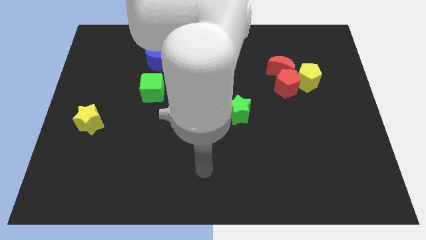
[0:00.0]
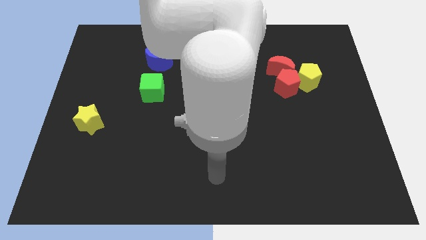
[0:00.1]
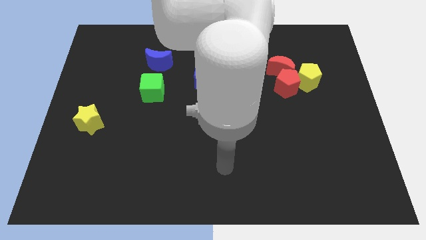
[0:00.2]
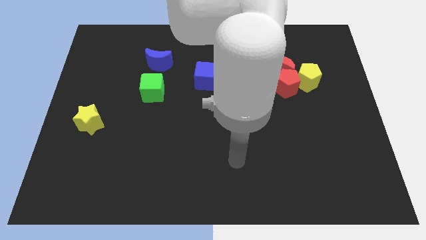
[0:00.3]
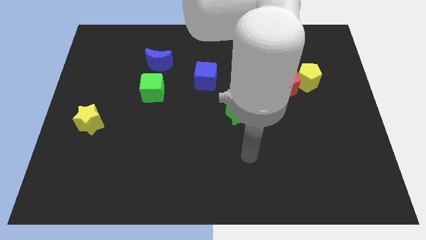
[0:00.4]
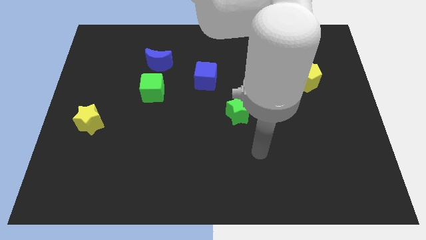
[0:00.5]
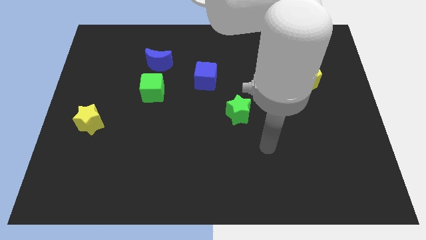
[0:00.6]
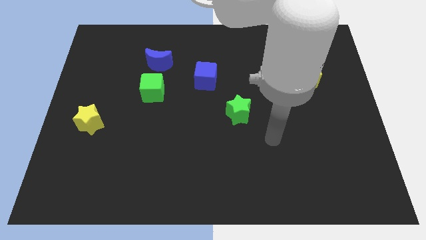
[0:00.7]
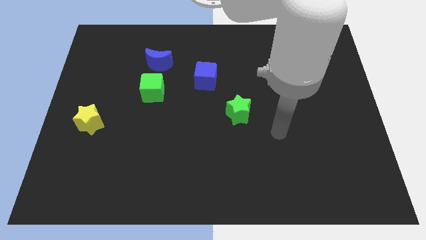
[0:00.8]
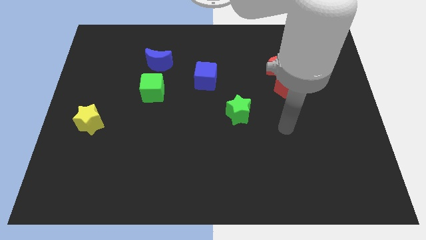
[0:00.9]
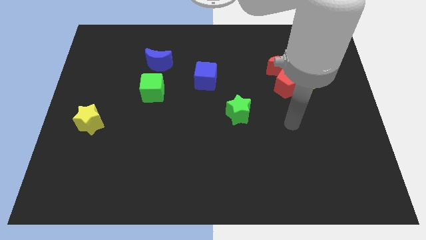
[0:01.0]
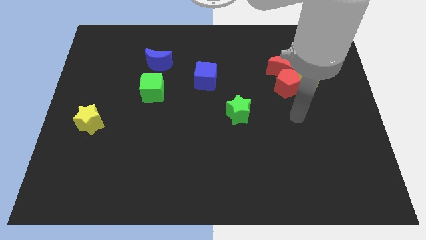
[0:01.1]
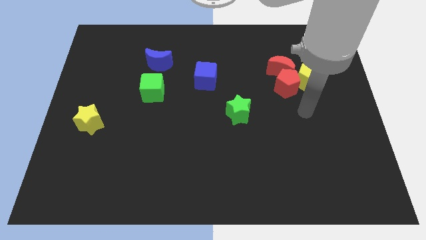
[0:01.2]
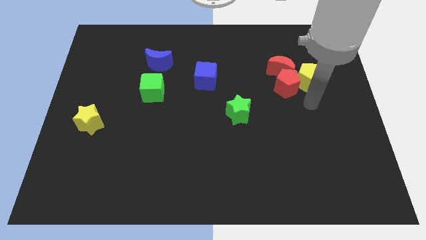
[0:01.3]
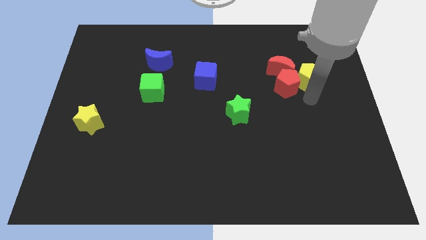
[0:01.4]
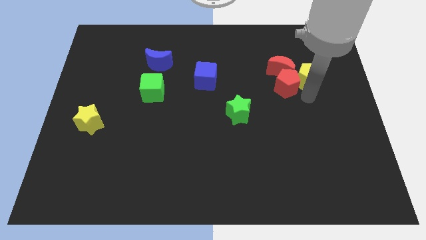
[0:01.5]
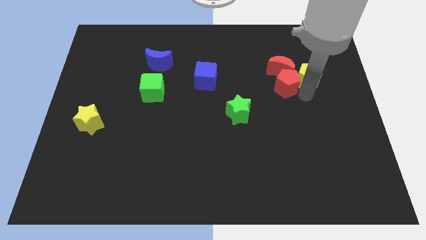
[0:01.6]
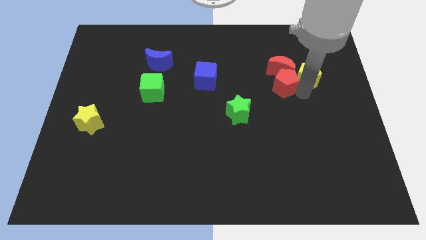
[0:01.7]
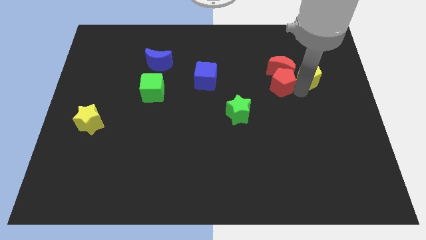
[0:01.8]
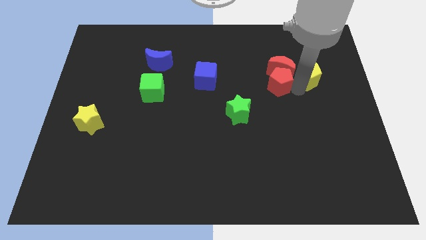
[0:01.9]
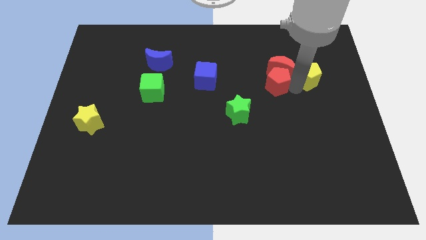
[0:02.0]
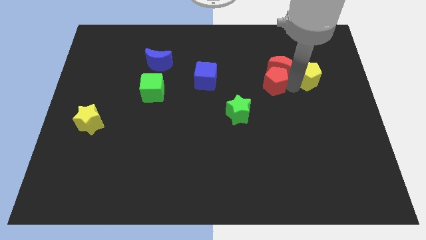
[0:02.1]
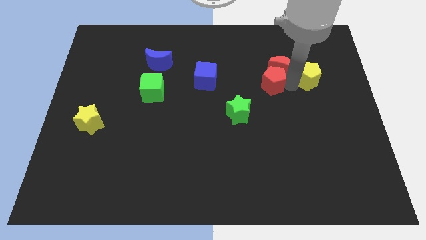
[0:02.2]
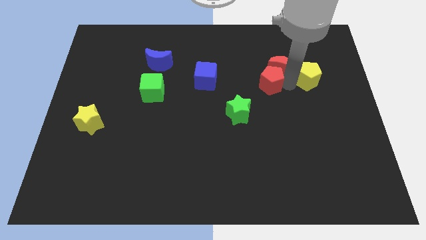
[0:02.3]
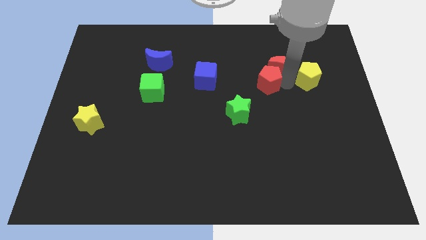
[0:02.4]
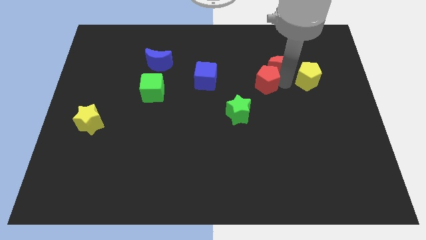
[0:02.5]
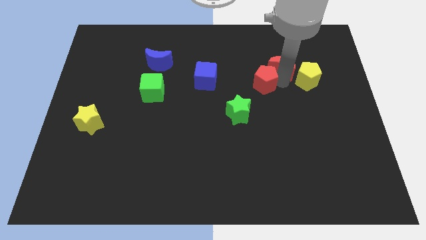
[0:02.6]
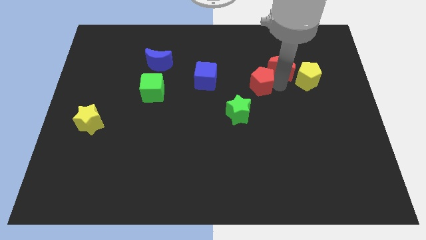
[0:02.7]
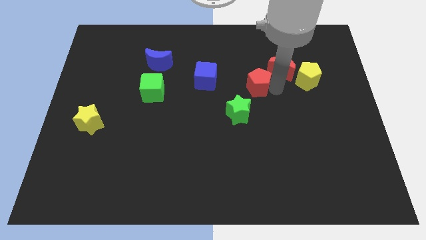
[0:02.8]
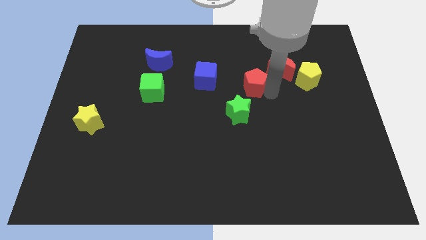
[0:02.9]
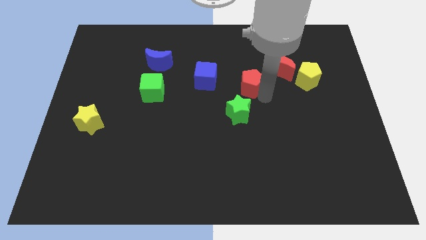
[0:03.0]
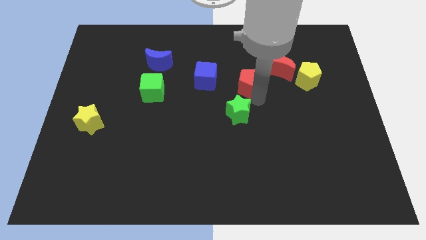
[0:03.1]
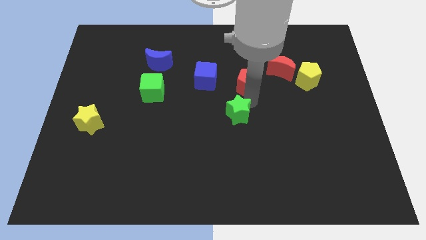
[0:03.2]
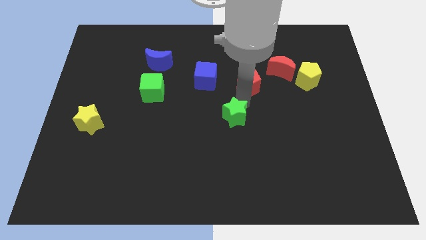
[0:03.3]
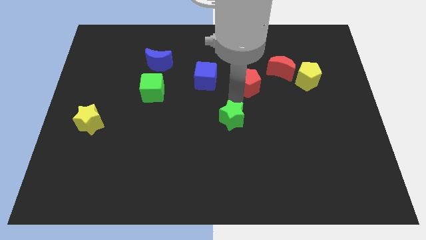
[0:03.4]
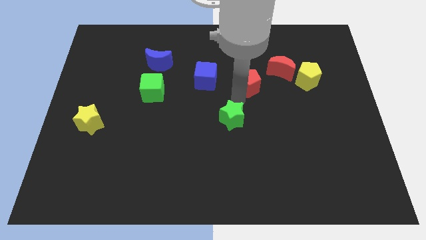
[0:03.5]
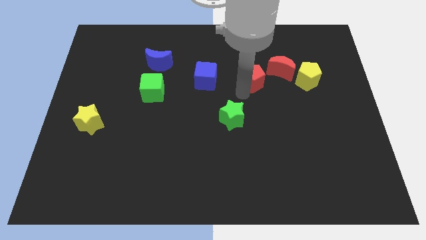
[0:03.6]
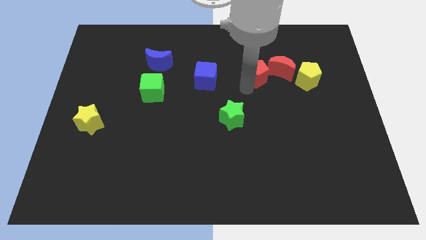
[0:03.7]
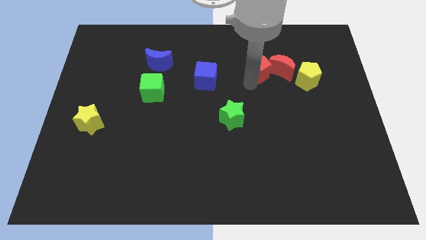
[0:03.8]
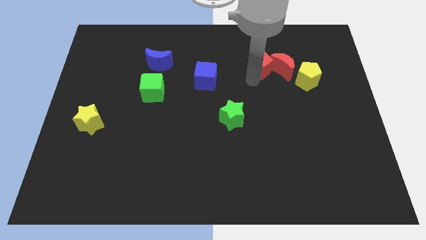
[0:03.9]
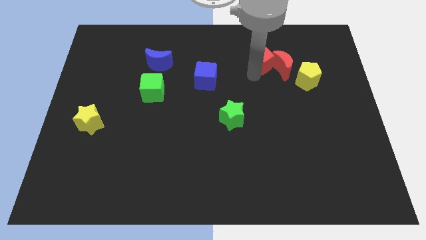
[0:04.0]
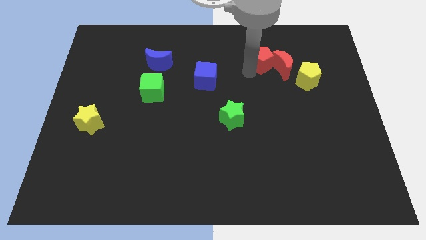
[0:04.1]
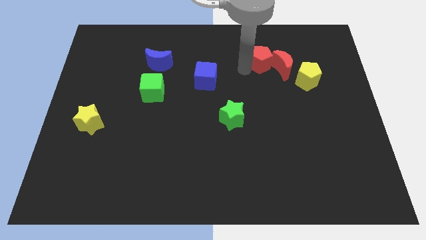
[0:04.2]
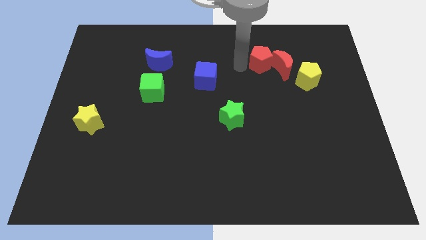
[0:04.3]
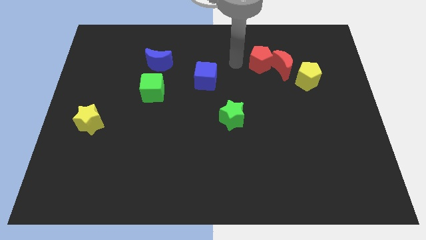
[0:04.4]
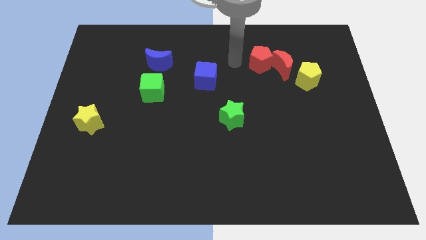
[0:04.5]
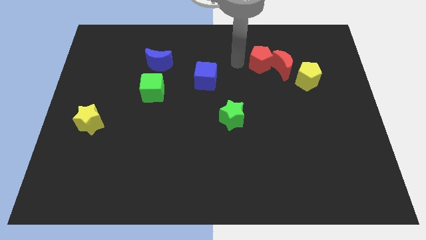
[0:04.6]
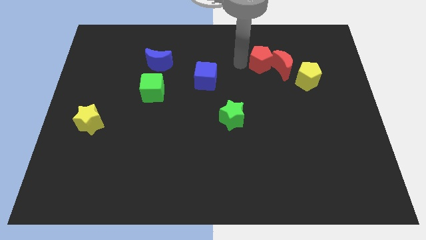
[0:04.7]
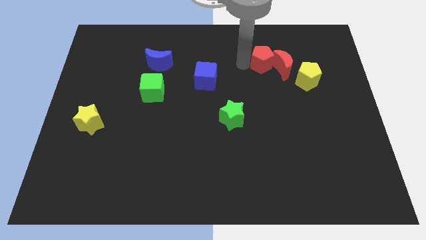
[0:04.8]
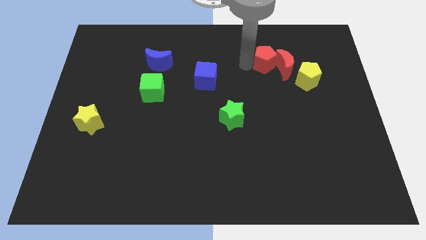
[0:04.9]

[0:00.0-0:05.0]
push the red pentagon to the top left side of the yellow pentagon

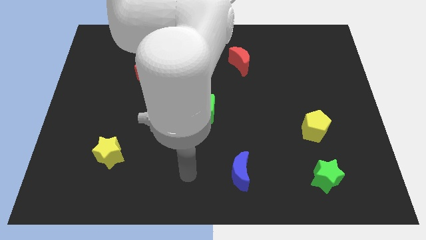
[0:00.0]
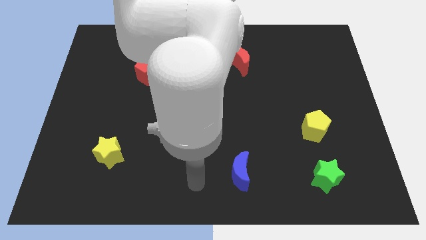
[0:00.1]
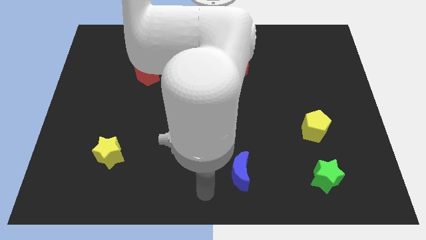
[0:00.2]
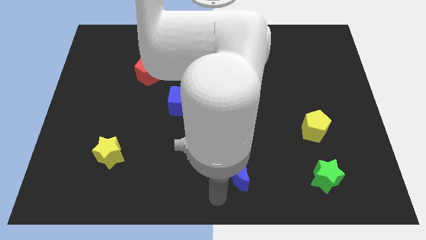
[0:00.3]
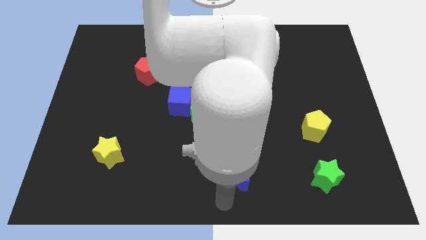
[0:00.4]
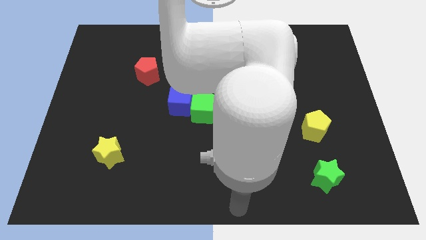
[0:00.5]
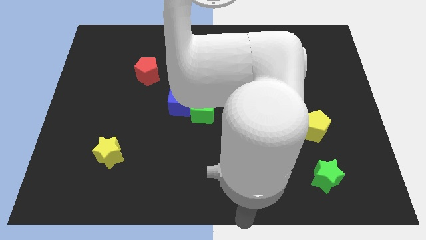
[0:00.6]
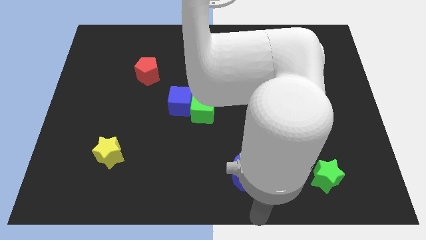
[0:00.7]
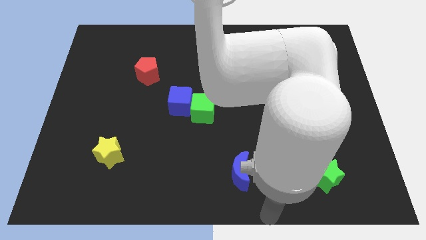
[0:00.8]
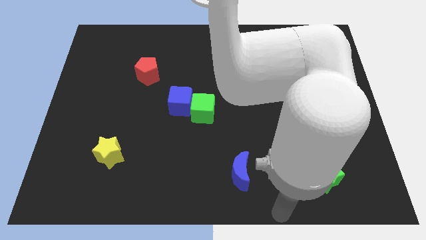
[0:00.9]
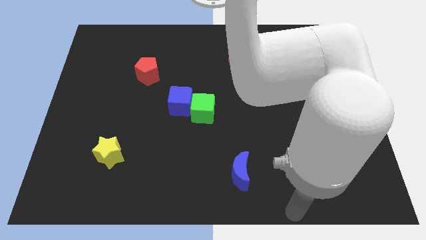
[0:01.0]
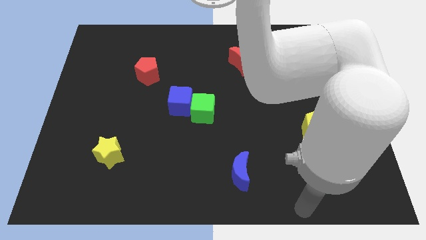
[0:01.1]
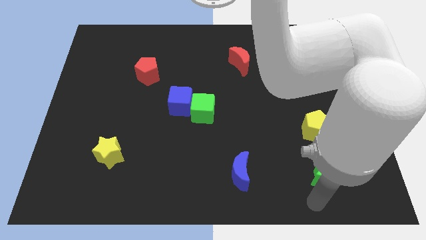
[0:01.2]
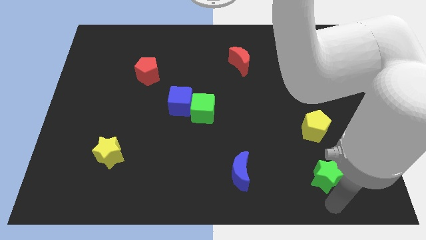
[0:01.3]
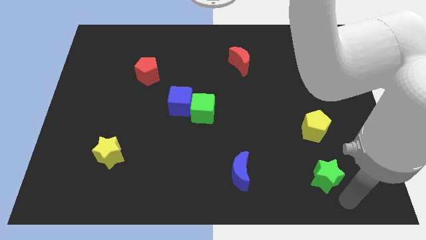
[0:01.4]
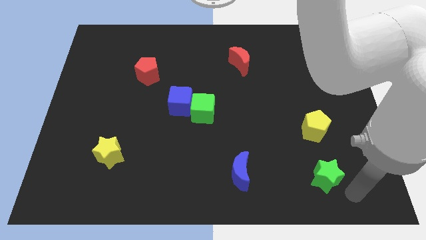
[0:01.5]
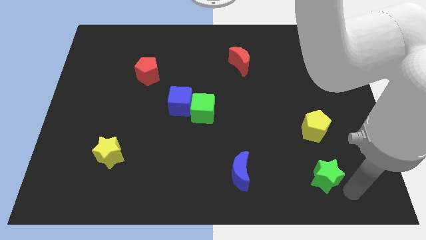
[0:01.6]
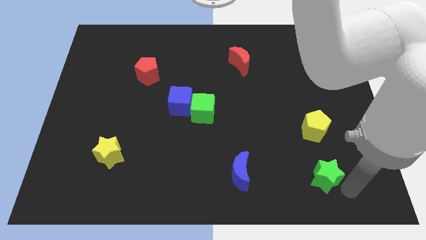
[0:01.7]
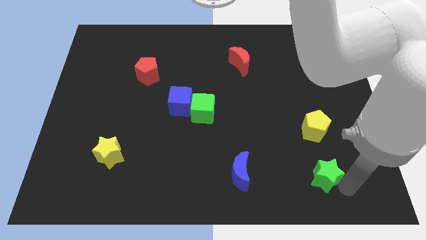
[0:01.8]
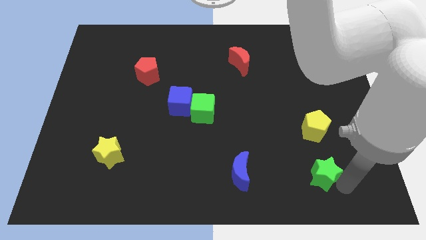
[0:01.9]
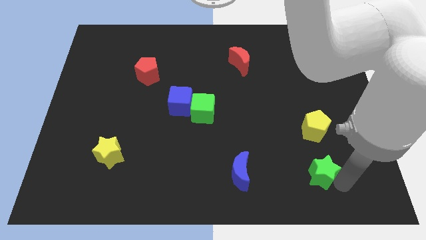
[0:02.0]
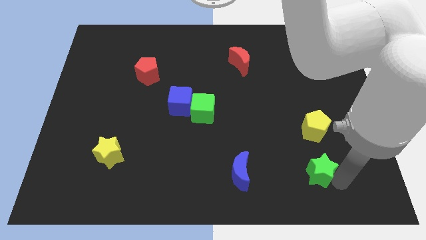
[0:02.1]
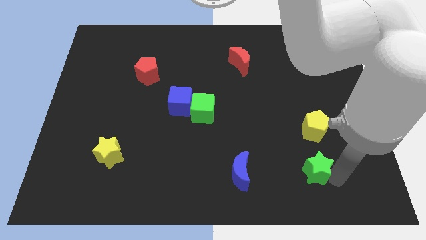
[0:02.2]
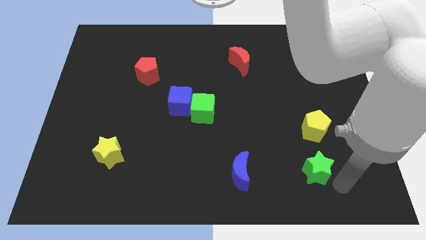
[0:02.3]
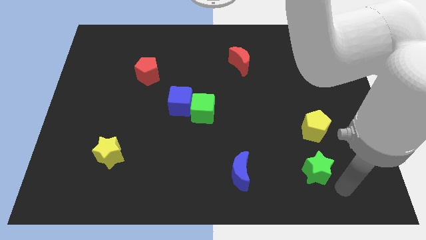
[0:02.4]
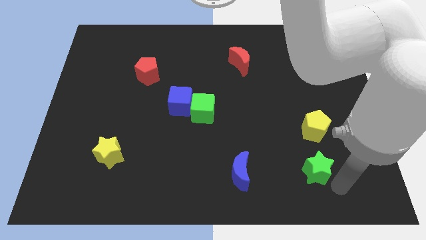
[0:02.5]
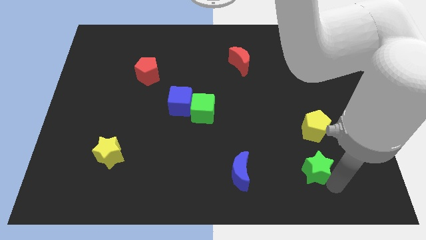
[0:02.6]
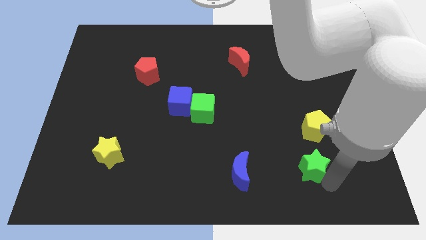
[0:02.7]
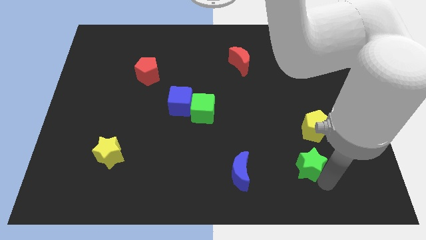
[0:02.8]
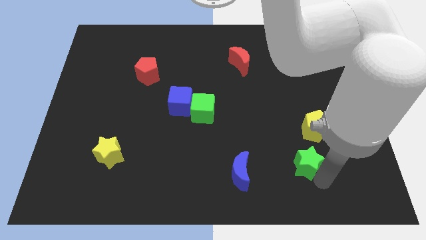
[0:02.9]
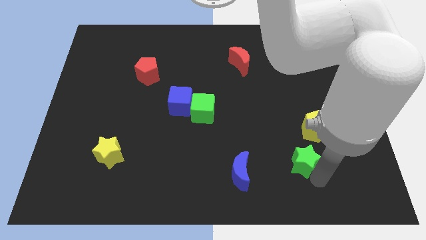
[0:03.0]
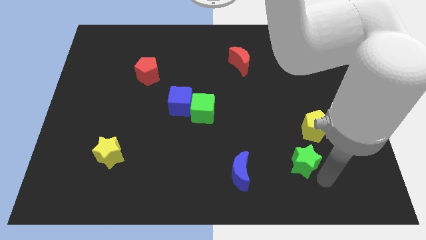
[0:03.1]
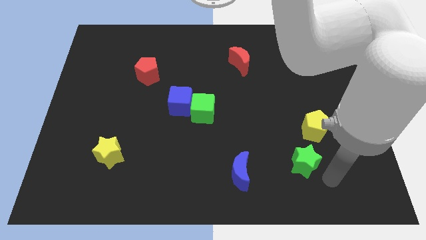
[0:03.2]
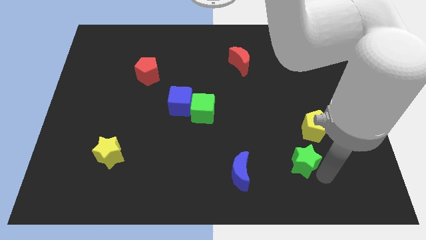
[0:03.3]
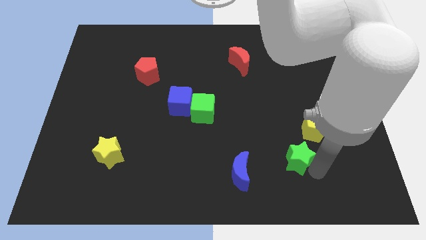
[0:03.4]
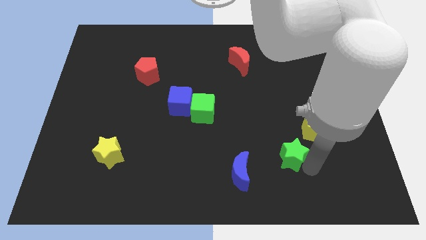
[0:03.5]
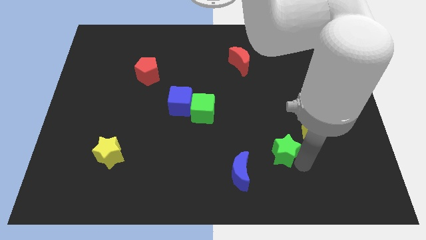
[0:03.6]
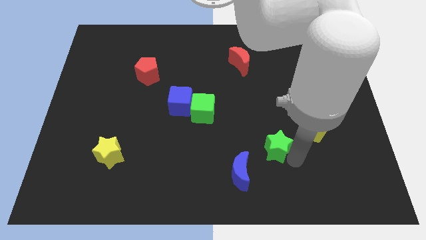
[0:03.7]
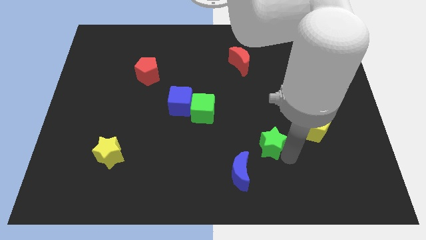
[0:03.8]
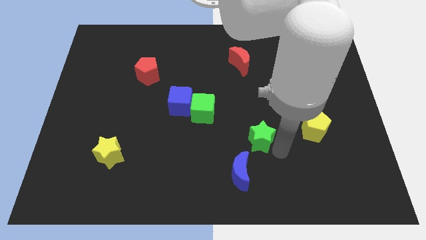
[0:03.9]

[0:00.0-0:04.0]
put the green star above the blue moon
